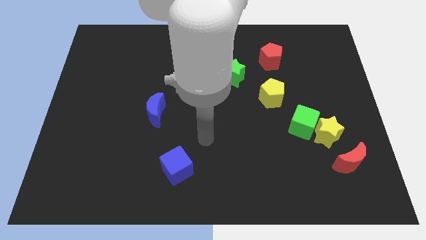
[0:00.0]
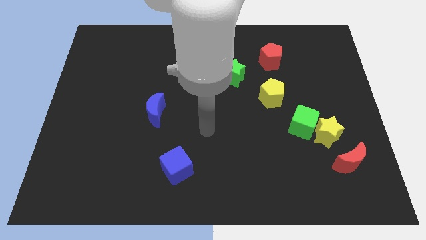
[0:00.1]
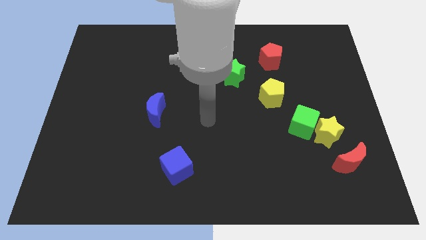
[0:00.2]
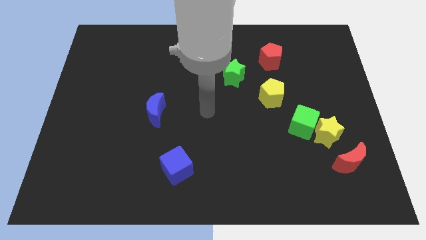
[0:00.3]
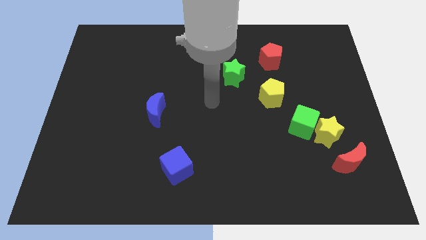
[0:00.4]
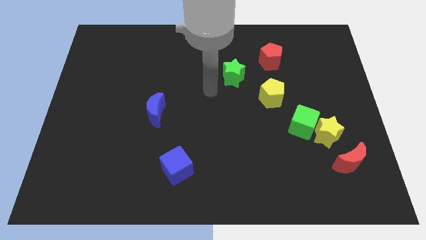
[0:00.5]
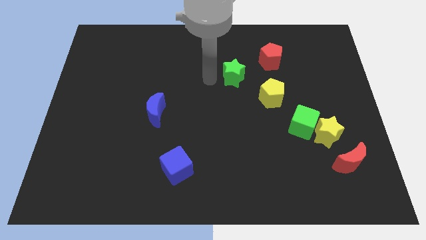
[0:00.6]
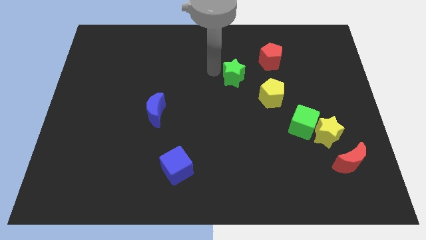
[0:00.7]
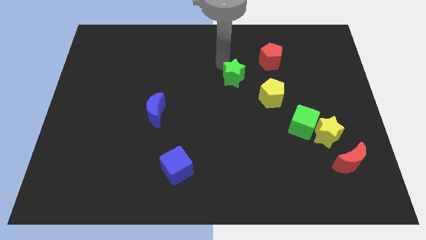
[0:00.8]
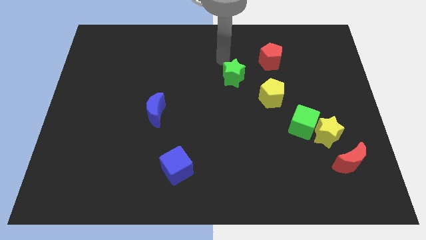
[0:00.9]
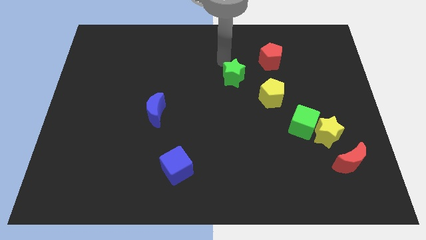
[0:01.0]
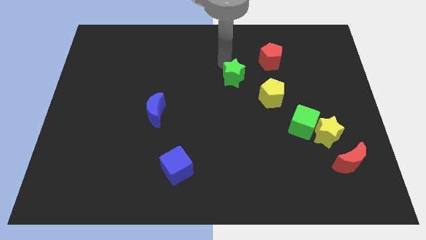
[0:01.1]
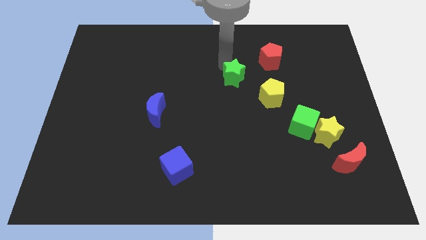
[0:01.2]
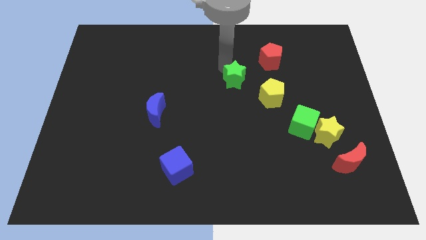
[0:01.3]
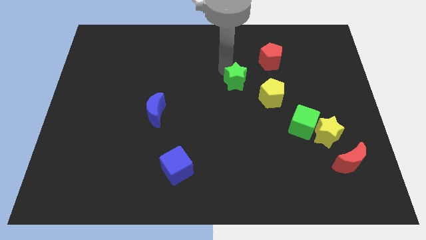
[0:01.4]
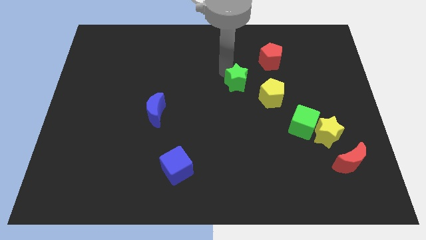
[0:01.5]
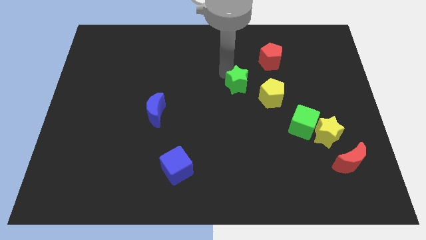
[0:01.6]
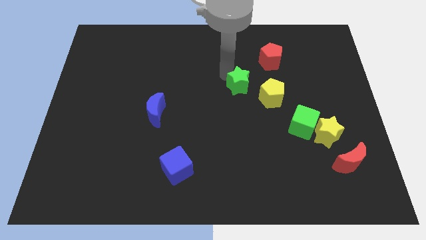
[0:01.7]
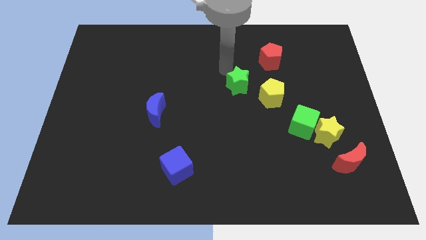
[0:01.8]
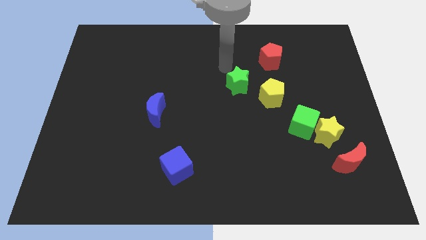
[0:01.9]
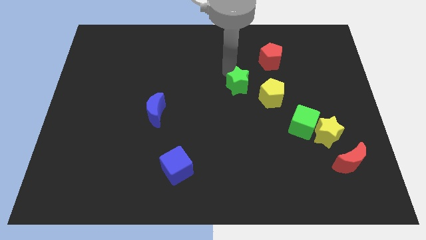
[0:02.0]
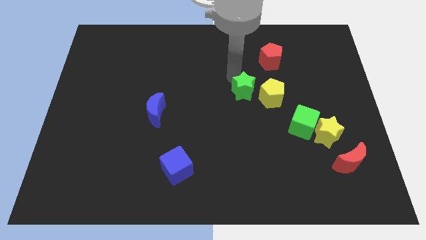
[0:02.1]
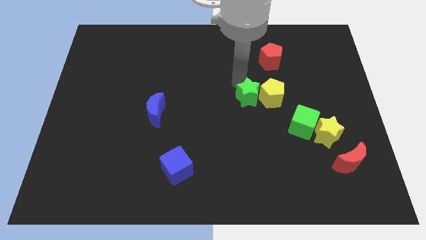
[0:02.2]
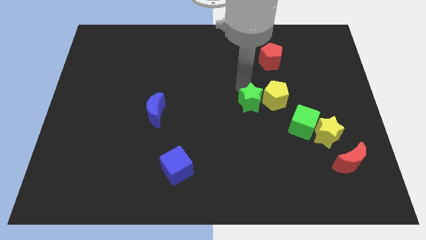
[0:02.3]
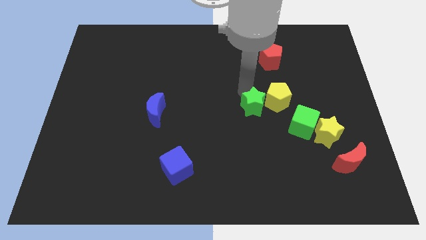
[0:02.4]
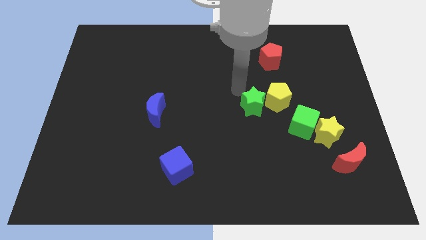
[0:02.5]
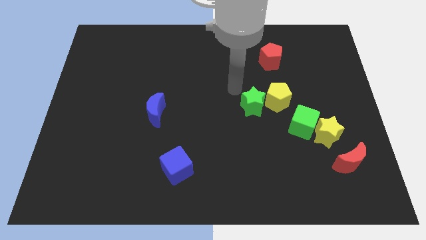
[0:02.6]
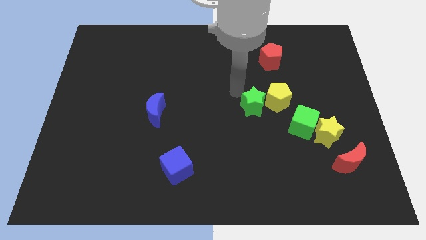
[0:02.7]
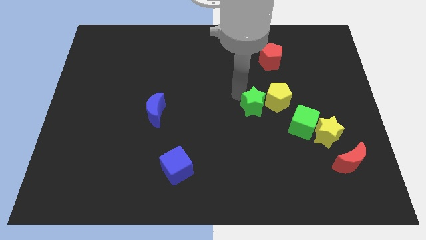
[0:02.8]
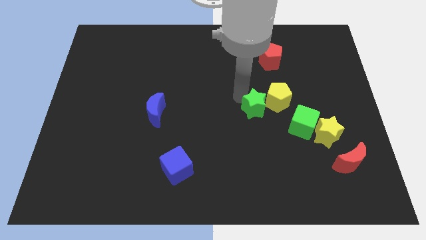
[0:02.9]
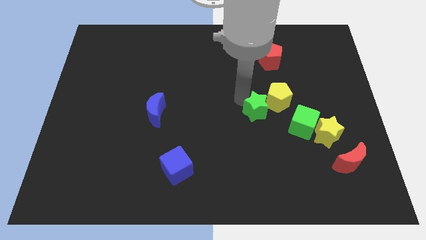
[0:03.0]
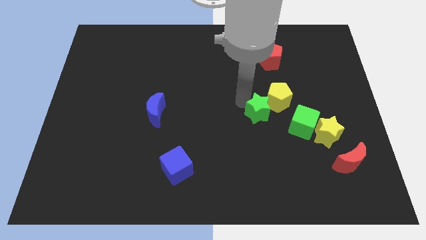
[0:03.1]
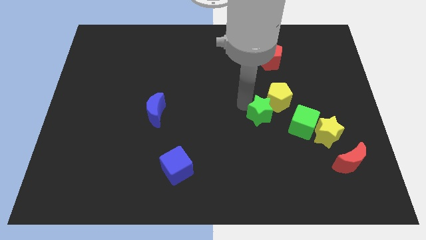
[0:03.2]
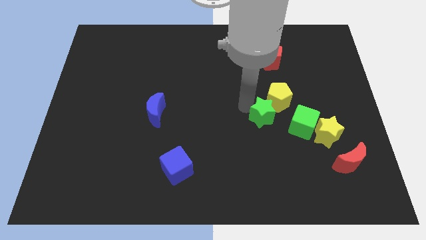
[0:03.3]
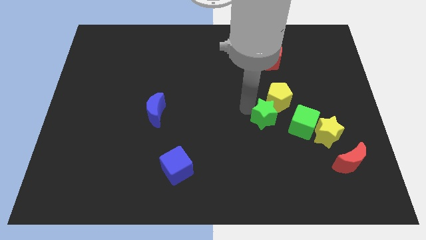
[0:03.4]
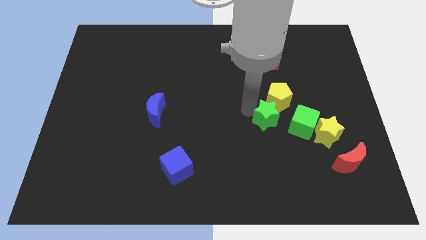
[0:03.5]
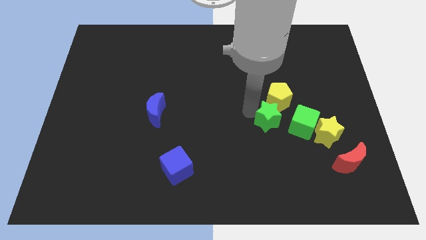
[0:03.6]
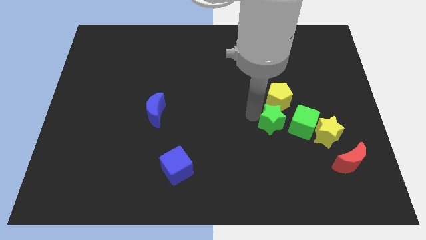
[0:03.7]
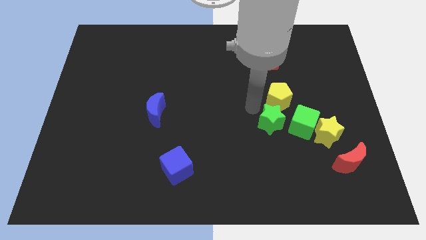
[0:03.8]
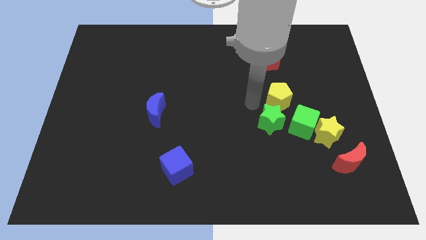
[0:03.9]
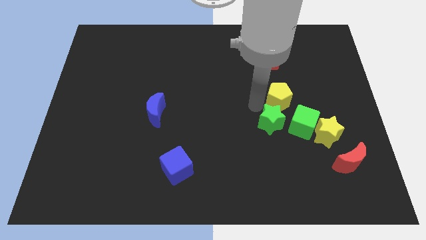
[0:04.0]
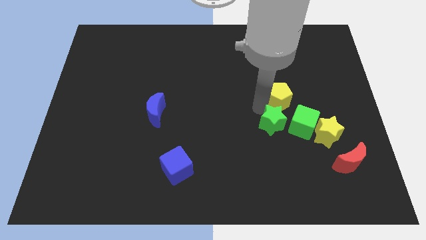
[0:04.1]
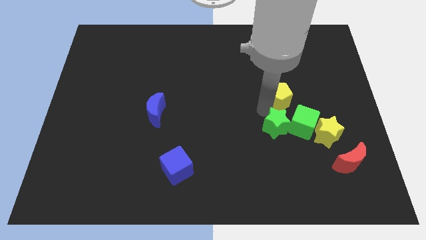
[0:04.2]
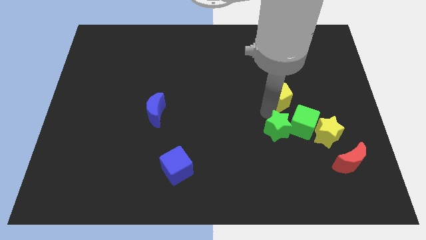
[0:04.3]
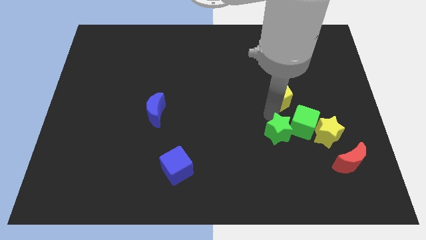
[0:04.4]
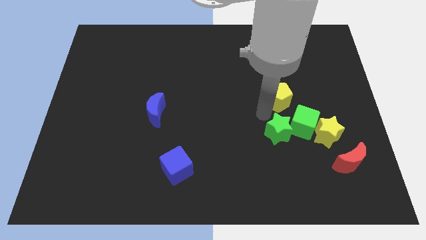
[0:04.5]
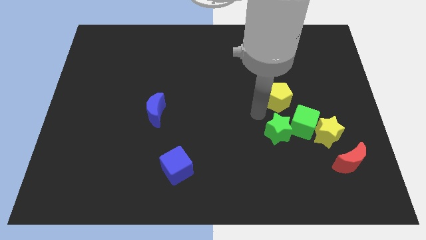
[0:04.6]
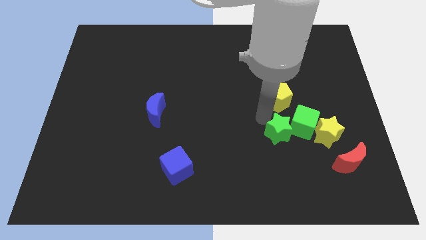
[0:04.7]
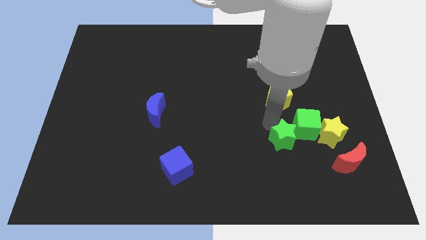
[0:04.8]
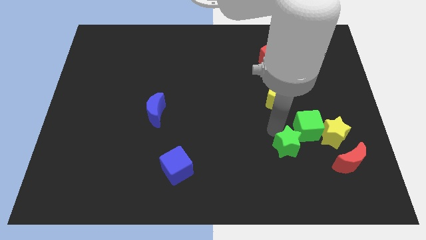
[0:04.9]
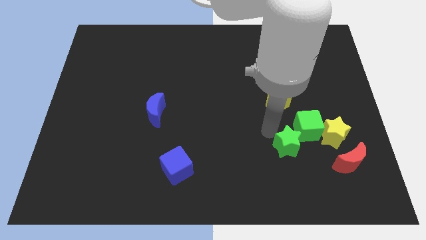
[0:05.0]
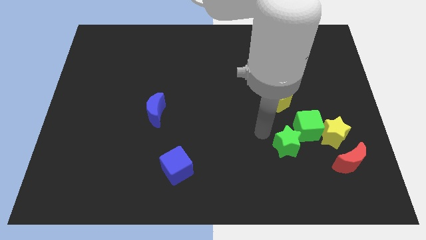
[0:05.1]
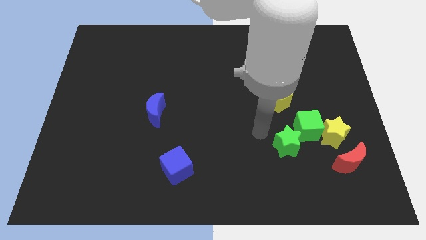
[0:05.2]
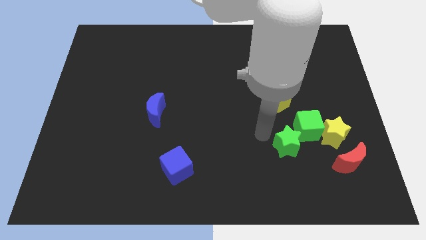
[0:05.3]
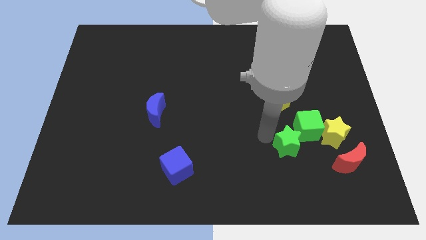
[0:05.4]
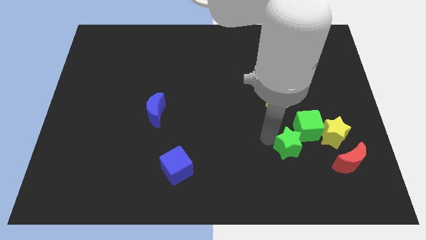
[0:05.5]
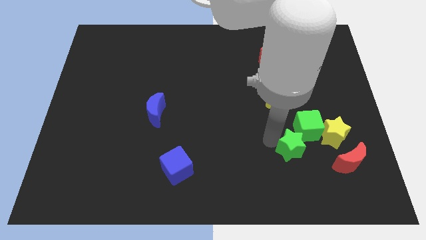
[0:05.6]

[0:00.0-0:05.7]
slide the green star to the bottom left side of the yellow star
